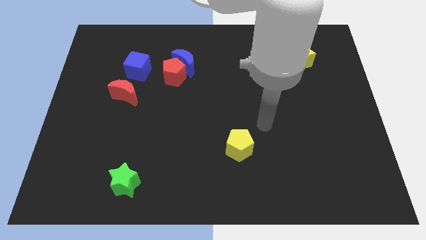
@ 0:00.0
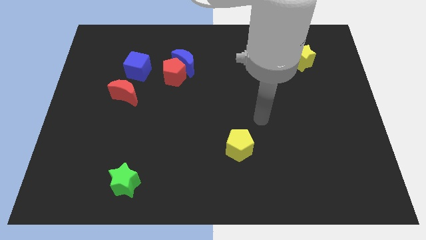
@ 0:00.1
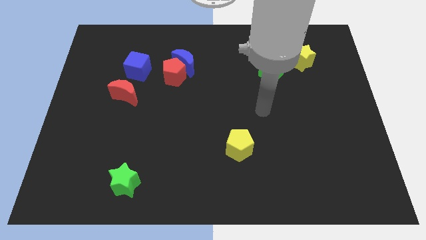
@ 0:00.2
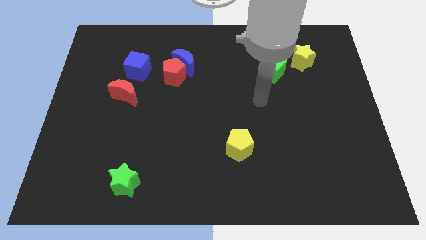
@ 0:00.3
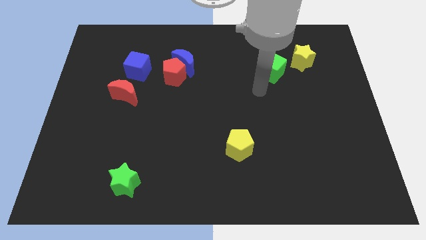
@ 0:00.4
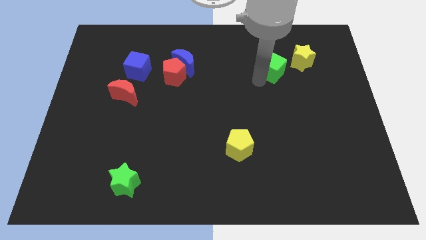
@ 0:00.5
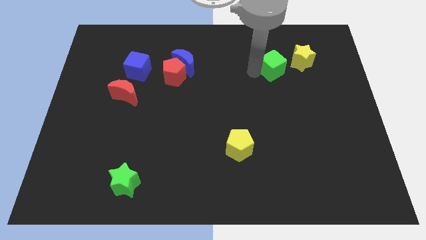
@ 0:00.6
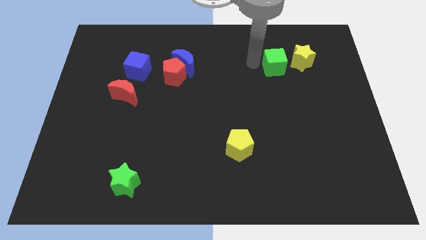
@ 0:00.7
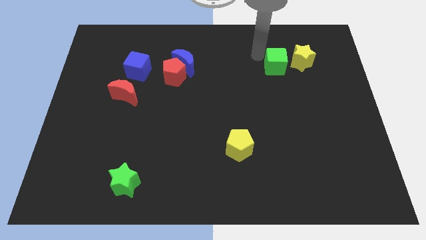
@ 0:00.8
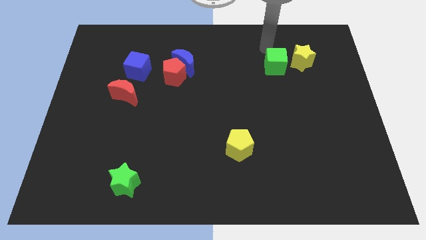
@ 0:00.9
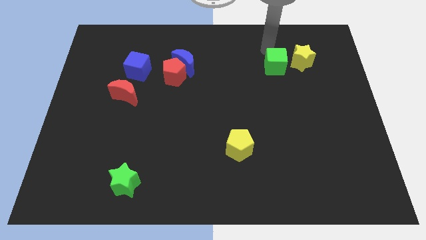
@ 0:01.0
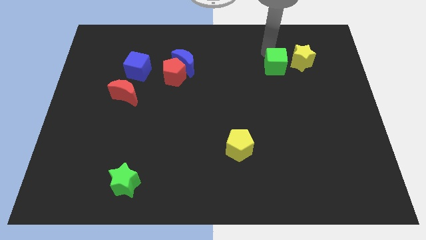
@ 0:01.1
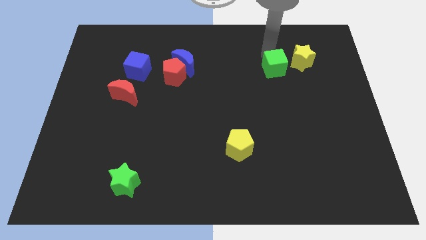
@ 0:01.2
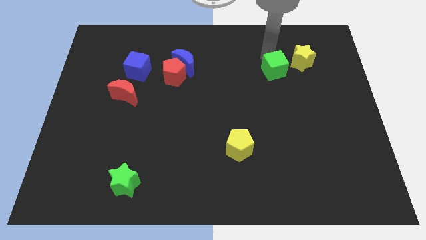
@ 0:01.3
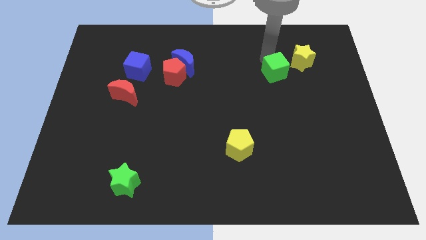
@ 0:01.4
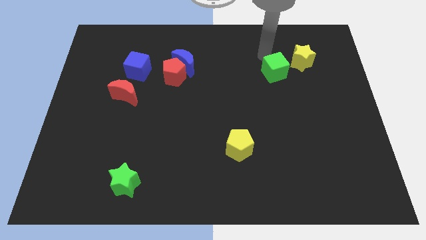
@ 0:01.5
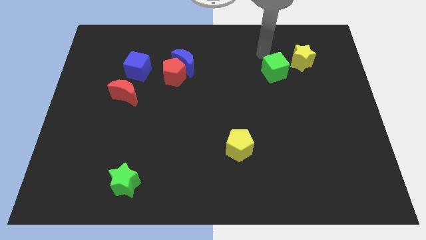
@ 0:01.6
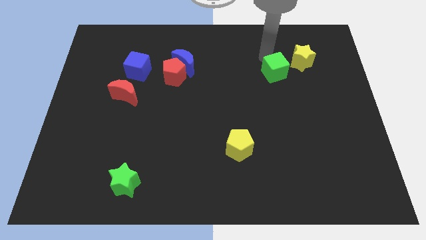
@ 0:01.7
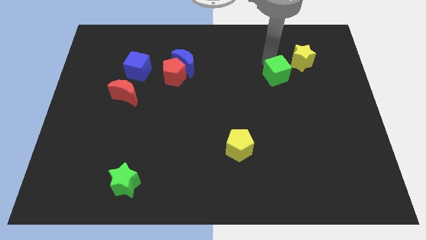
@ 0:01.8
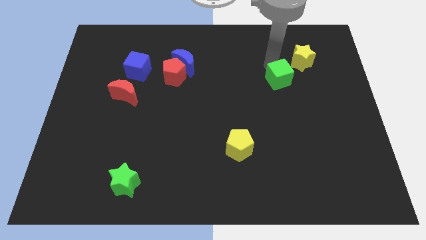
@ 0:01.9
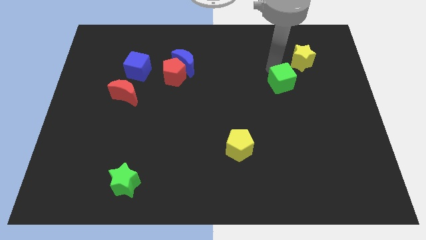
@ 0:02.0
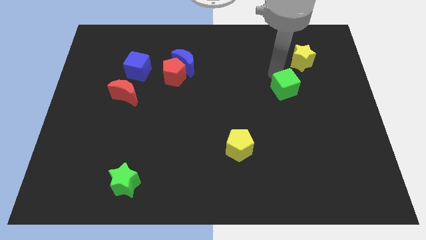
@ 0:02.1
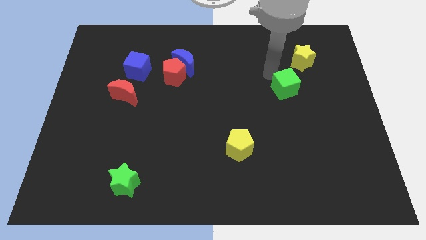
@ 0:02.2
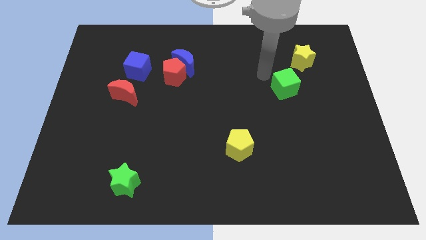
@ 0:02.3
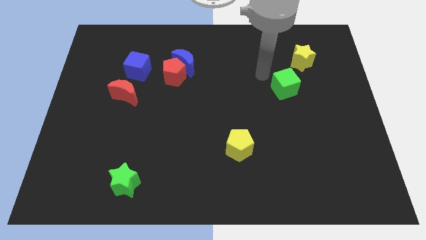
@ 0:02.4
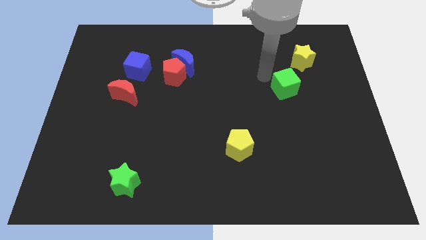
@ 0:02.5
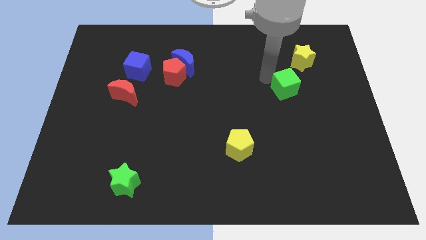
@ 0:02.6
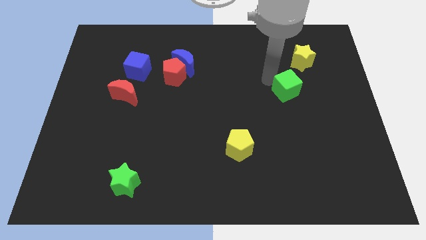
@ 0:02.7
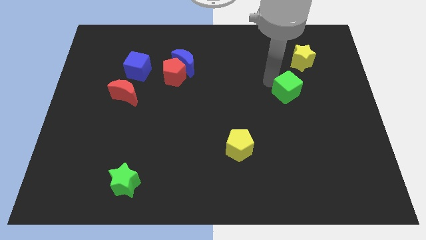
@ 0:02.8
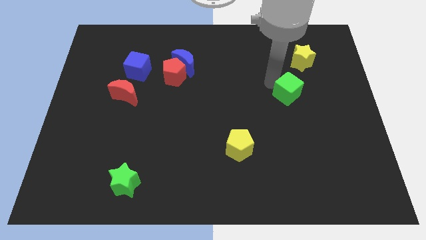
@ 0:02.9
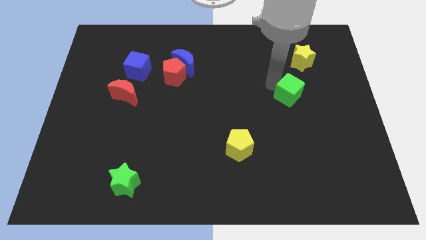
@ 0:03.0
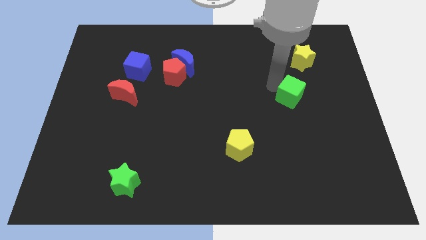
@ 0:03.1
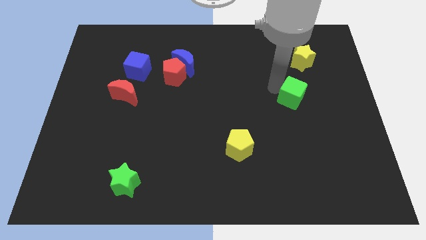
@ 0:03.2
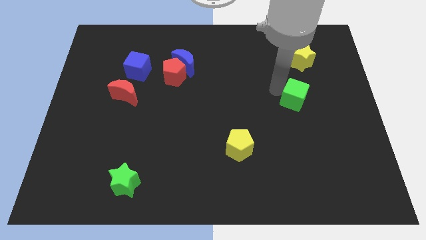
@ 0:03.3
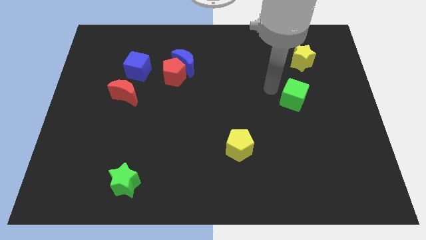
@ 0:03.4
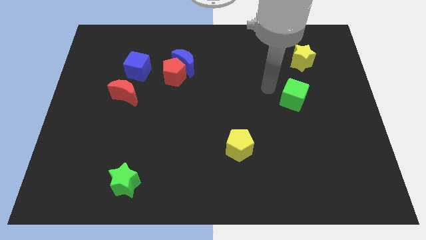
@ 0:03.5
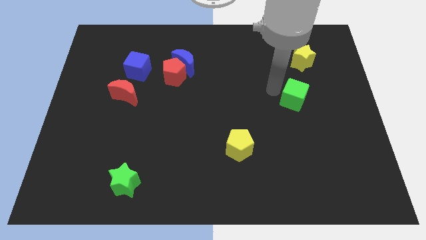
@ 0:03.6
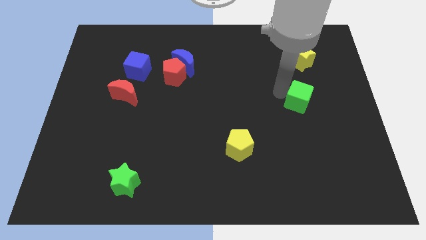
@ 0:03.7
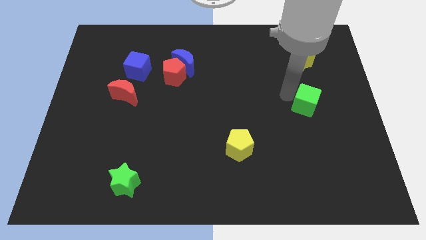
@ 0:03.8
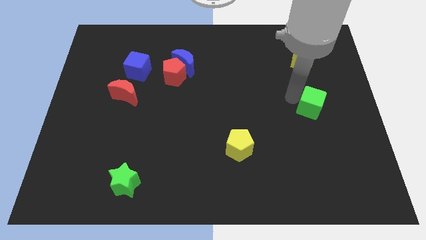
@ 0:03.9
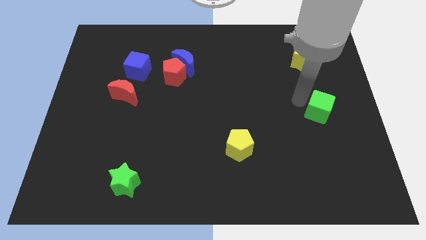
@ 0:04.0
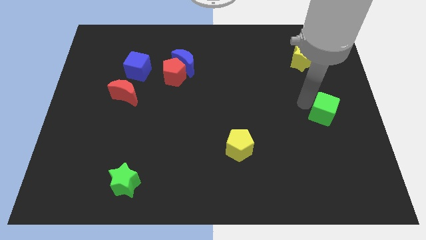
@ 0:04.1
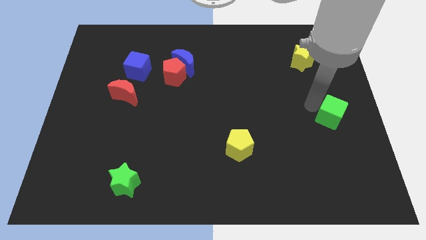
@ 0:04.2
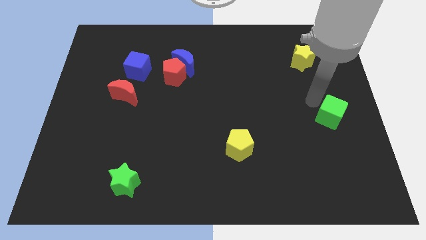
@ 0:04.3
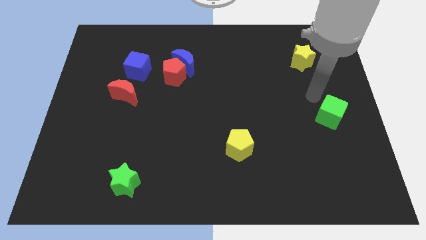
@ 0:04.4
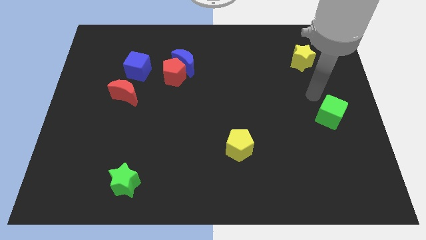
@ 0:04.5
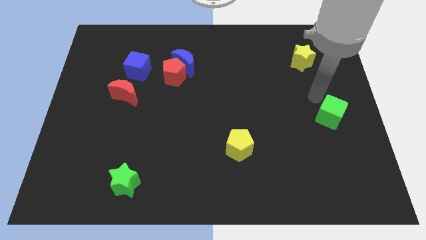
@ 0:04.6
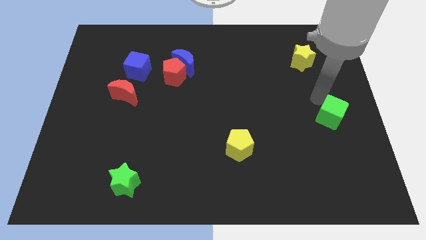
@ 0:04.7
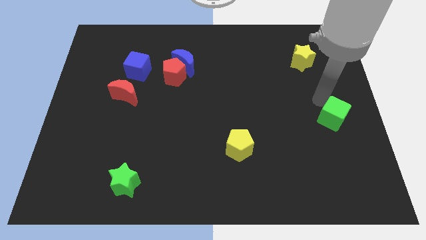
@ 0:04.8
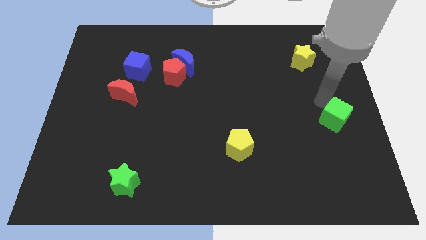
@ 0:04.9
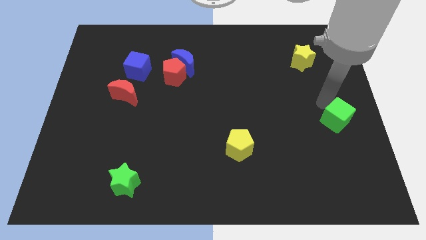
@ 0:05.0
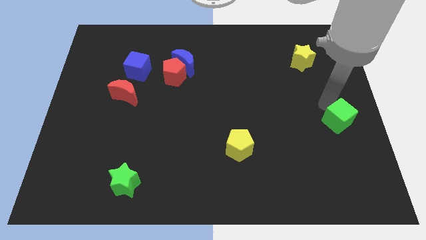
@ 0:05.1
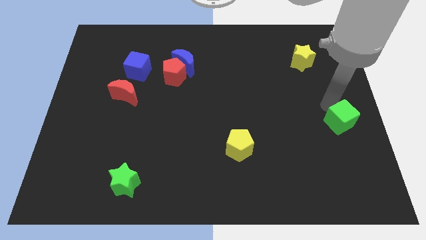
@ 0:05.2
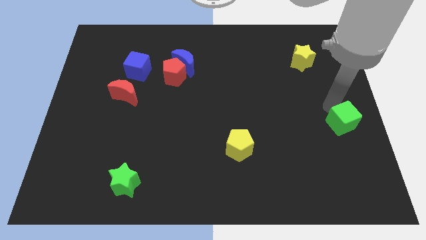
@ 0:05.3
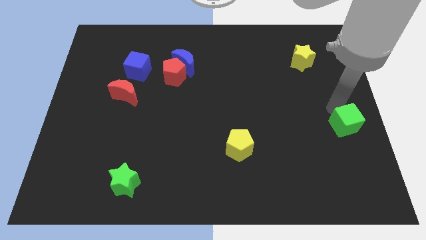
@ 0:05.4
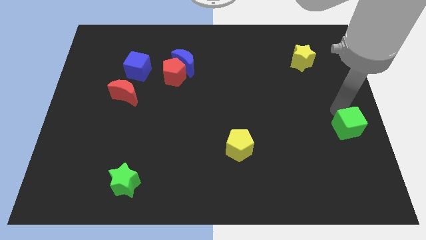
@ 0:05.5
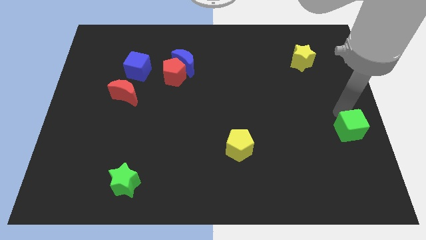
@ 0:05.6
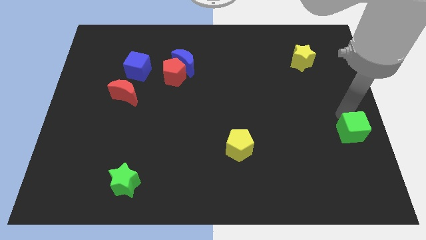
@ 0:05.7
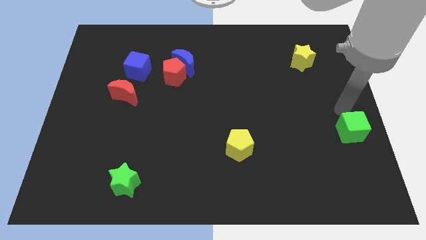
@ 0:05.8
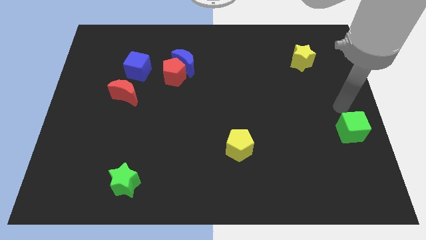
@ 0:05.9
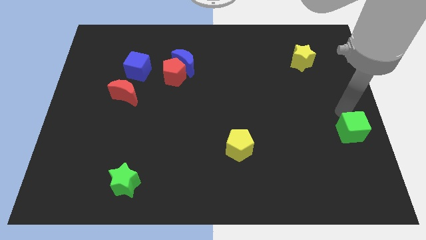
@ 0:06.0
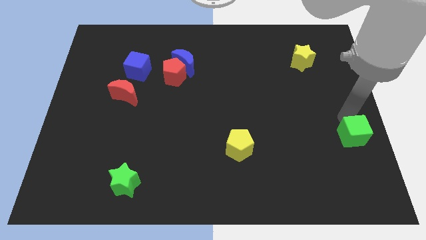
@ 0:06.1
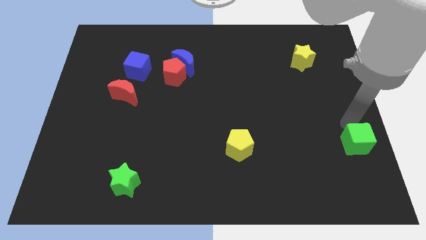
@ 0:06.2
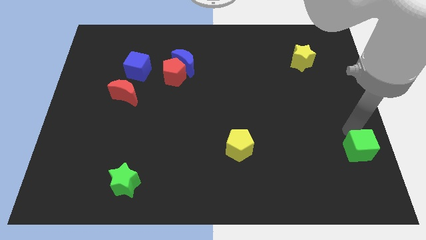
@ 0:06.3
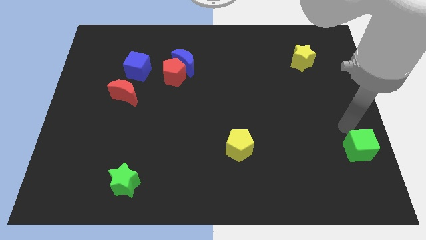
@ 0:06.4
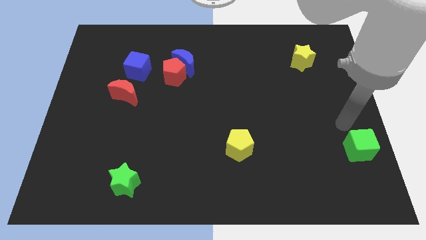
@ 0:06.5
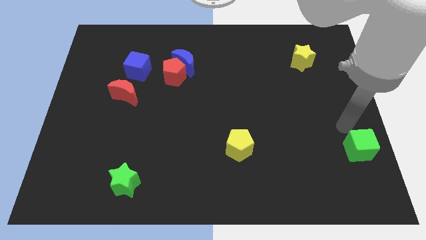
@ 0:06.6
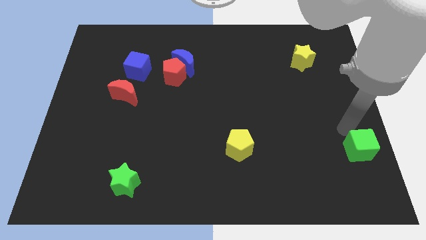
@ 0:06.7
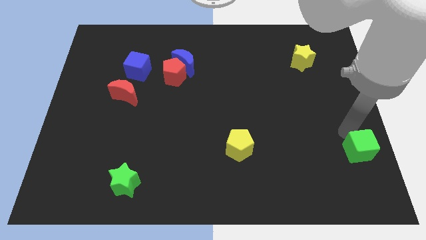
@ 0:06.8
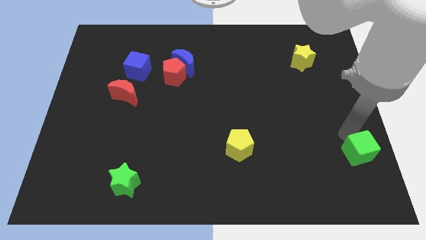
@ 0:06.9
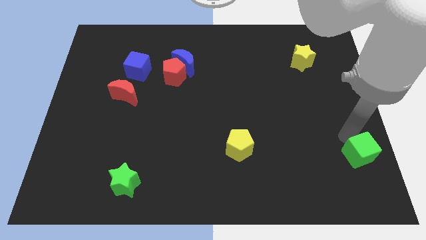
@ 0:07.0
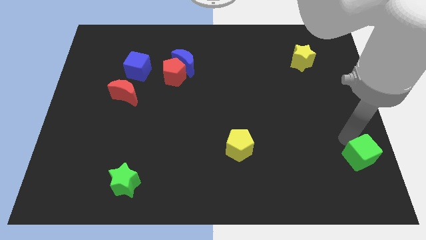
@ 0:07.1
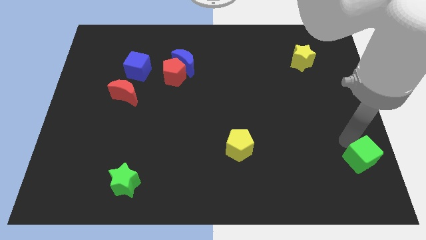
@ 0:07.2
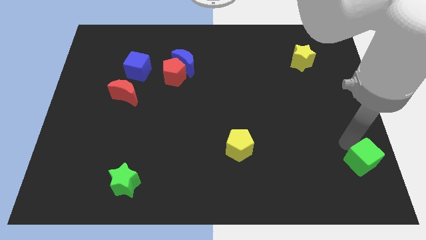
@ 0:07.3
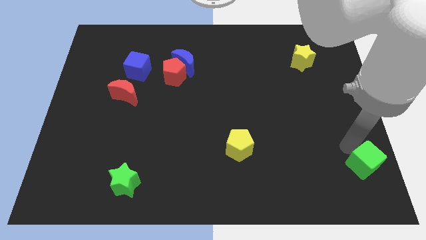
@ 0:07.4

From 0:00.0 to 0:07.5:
push the green cube to the bottom right of the board

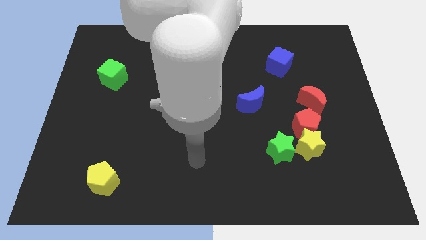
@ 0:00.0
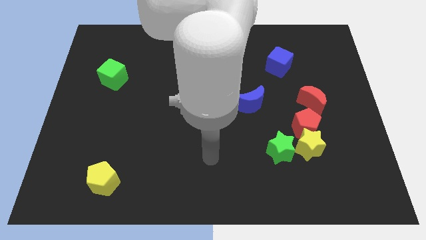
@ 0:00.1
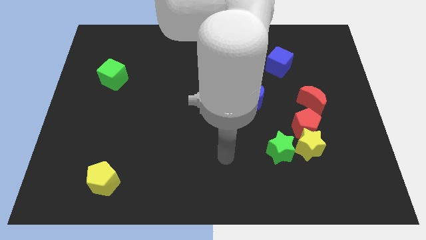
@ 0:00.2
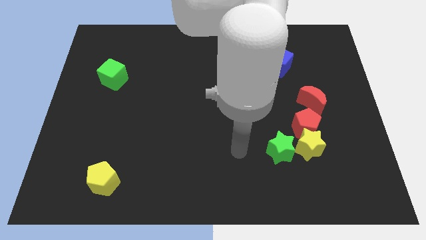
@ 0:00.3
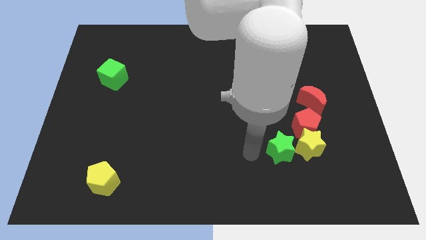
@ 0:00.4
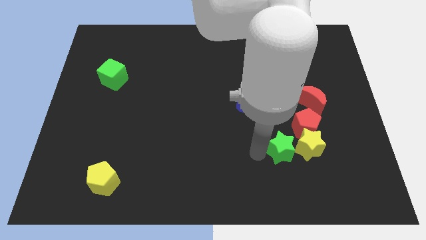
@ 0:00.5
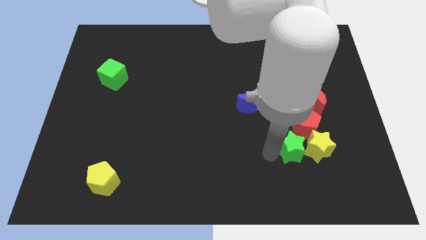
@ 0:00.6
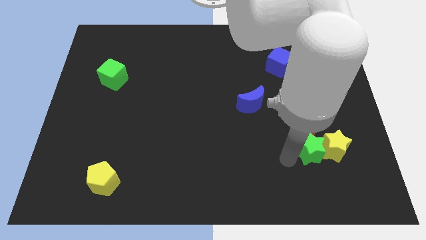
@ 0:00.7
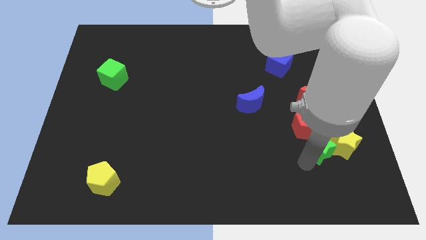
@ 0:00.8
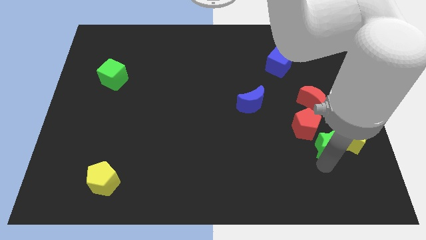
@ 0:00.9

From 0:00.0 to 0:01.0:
put the yellow star to the right side
